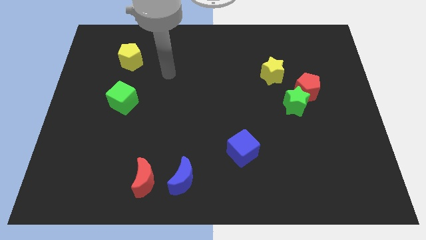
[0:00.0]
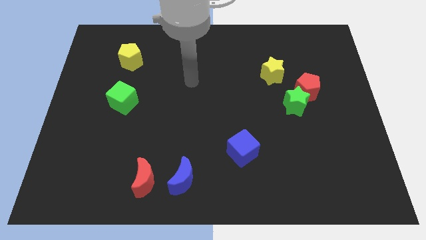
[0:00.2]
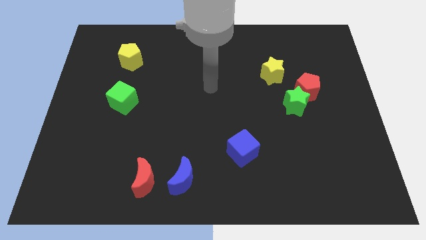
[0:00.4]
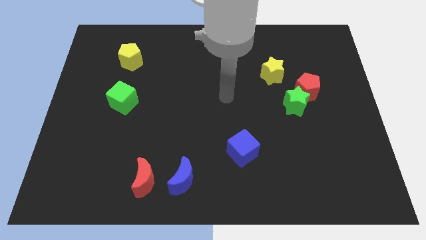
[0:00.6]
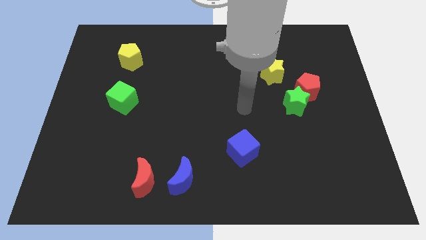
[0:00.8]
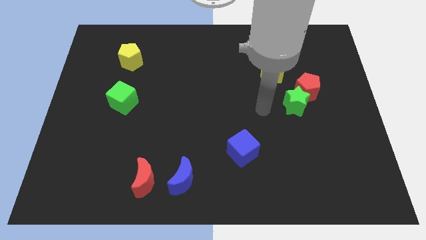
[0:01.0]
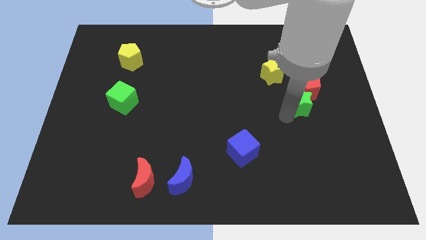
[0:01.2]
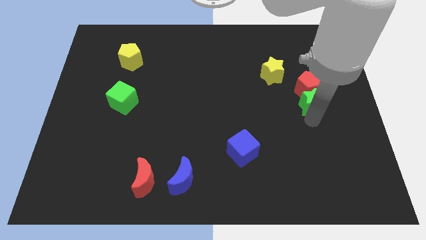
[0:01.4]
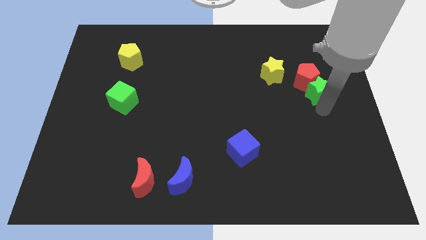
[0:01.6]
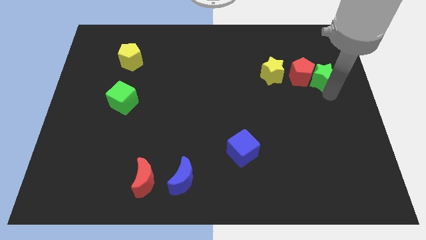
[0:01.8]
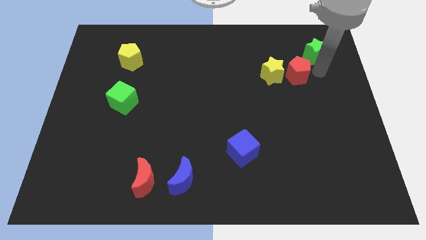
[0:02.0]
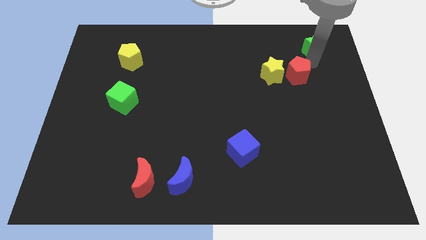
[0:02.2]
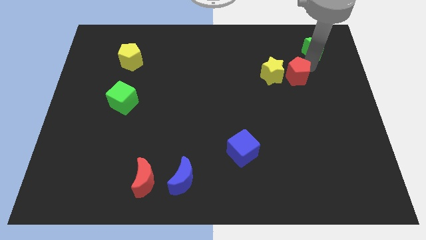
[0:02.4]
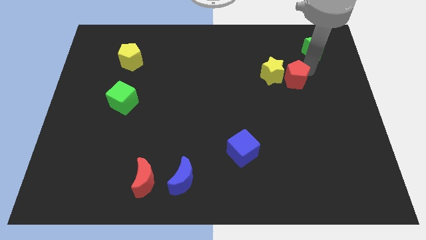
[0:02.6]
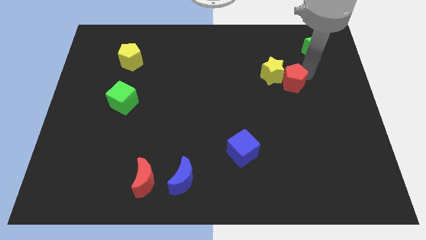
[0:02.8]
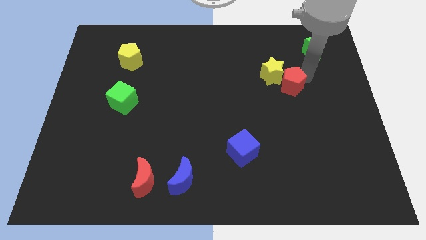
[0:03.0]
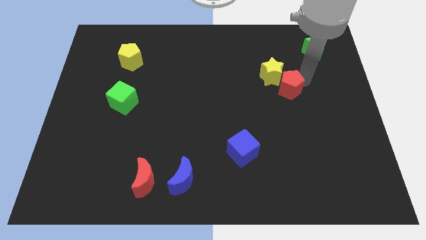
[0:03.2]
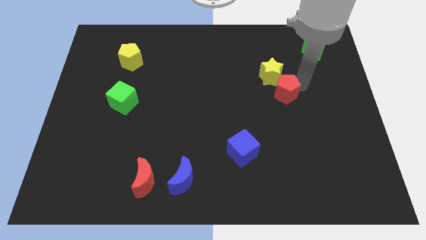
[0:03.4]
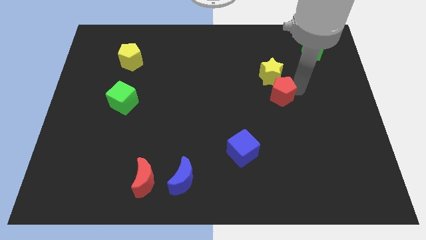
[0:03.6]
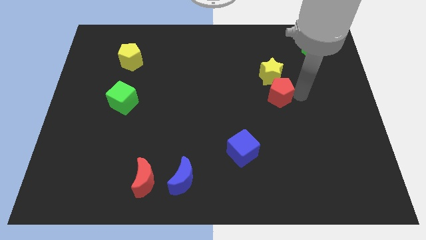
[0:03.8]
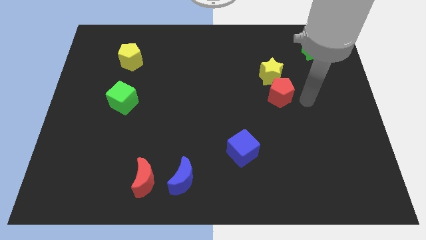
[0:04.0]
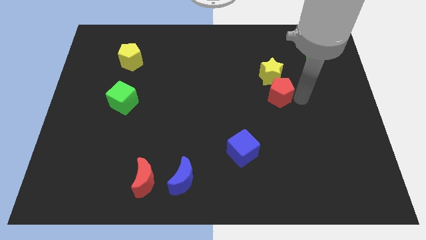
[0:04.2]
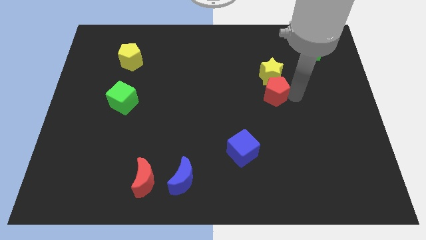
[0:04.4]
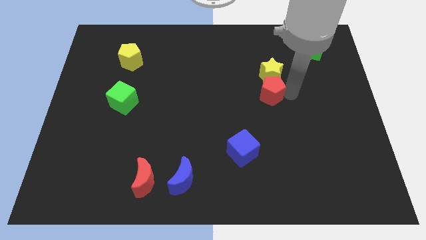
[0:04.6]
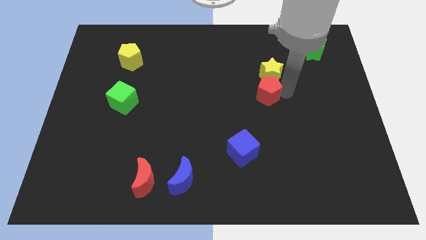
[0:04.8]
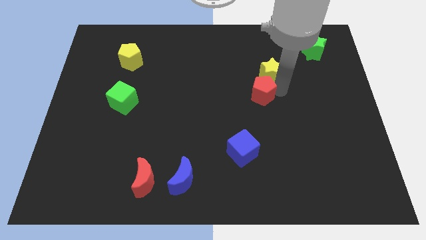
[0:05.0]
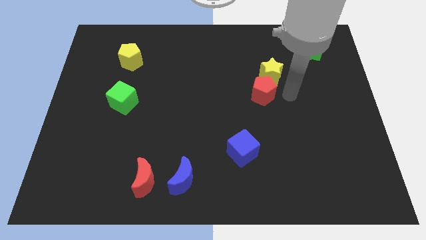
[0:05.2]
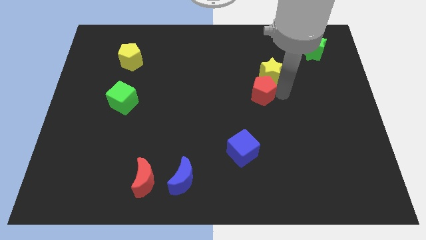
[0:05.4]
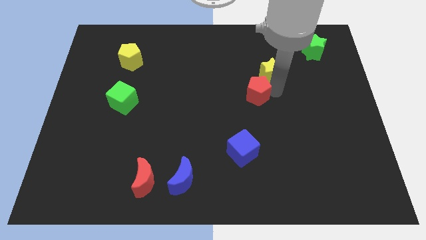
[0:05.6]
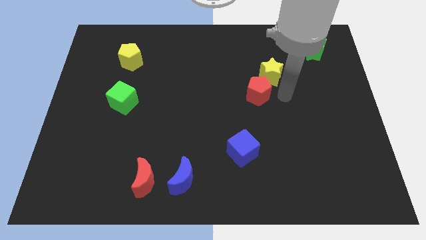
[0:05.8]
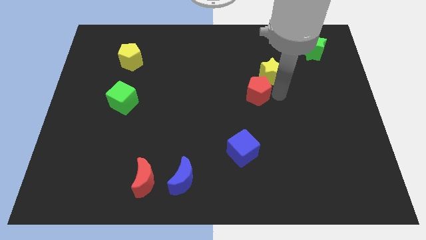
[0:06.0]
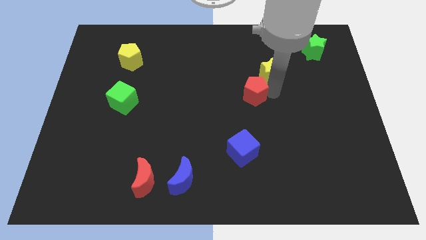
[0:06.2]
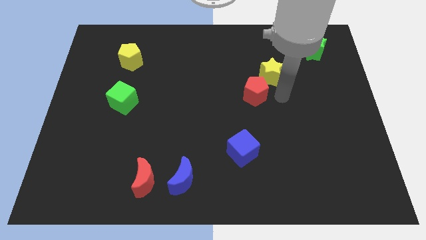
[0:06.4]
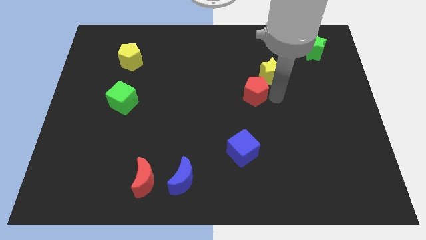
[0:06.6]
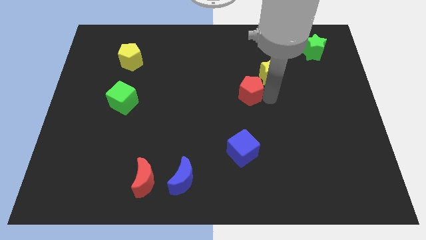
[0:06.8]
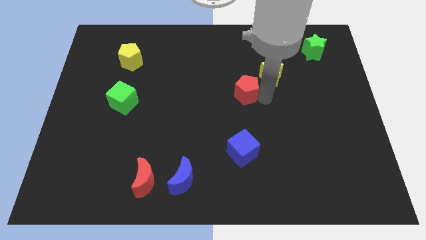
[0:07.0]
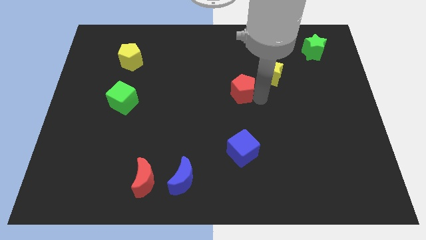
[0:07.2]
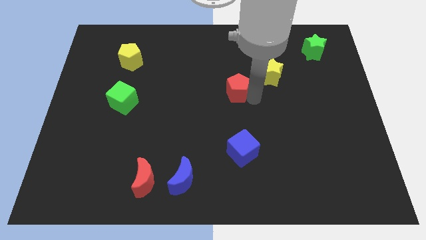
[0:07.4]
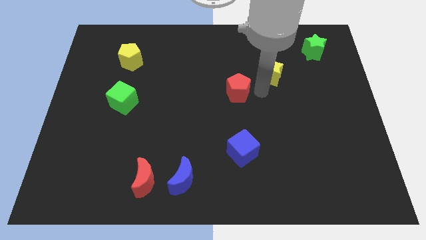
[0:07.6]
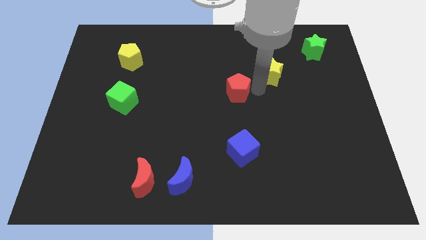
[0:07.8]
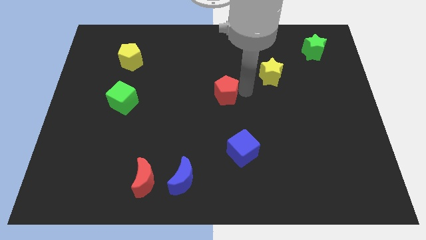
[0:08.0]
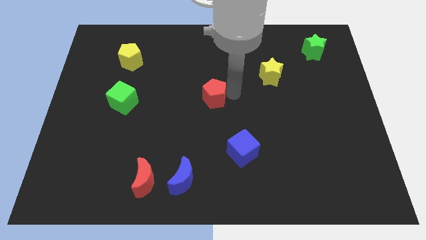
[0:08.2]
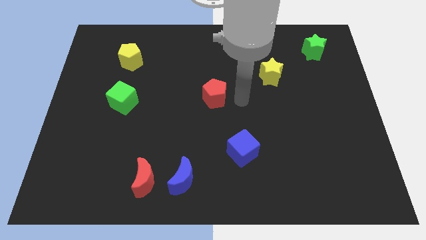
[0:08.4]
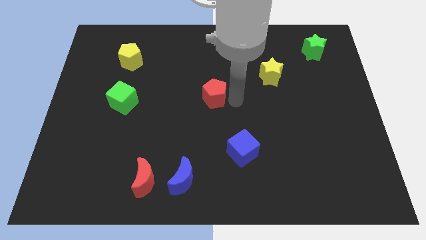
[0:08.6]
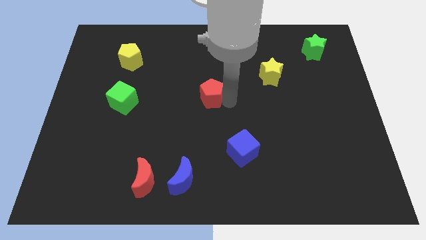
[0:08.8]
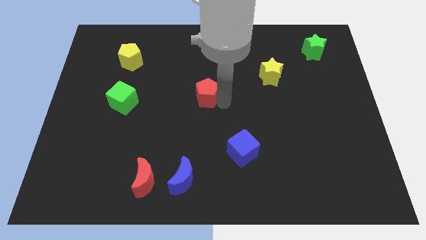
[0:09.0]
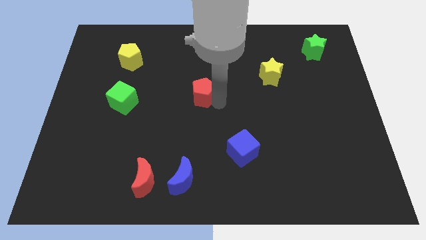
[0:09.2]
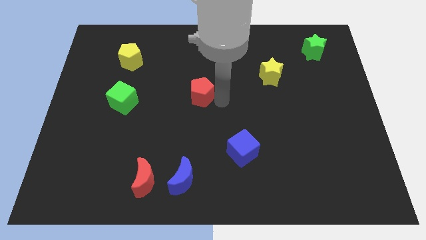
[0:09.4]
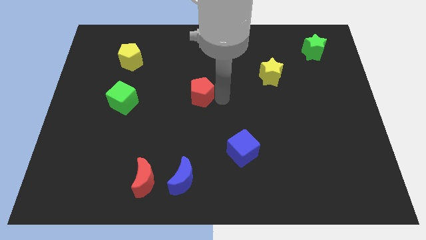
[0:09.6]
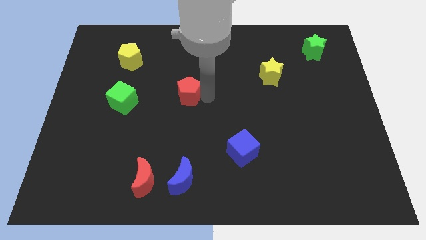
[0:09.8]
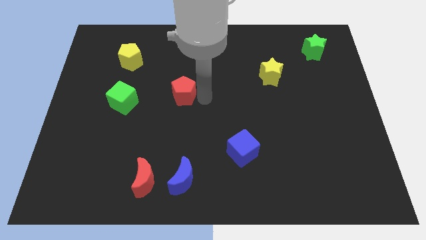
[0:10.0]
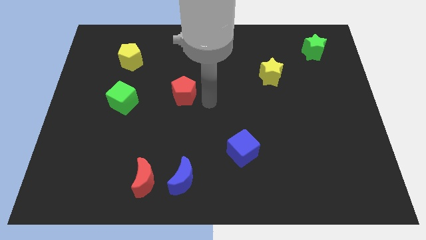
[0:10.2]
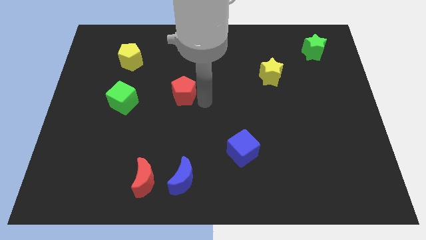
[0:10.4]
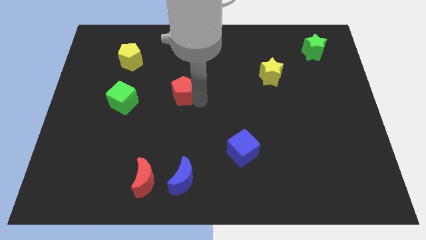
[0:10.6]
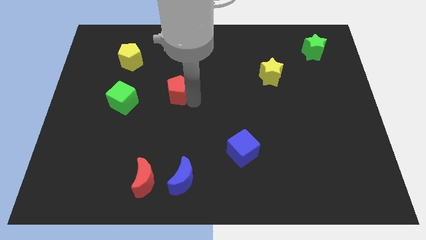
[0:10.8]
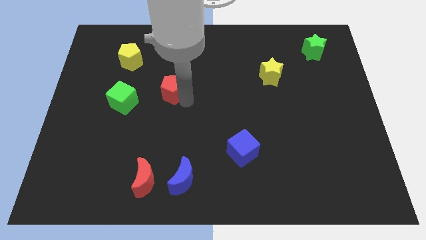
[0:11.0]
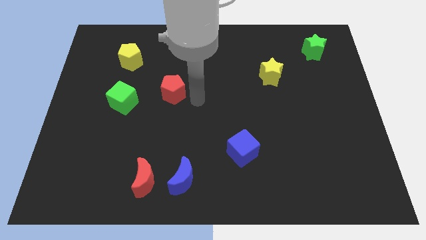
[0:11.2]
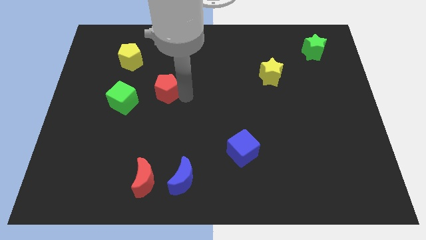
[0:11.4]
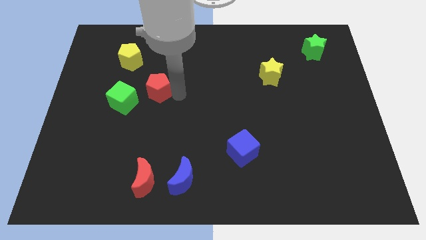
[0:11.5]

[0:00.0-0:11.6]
move the red pentagon to the top right side of the green cube

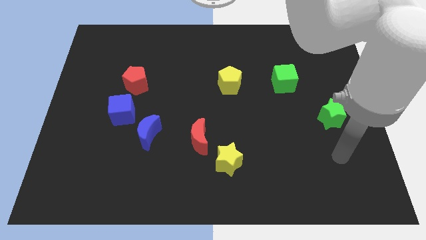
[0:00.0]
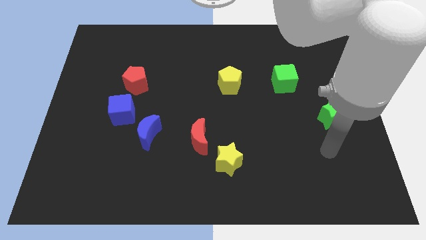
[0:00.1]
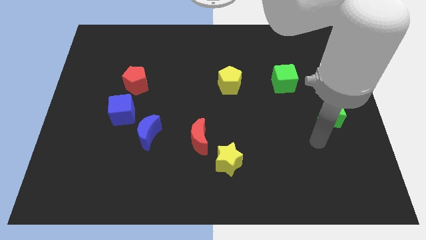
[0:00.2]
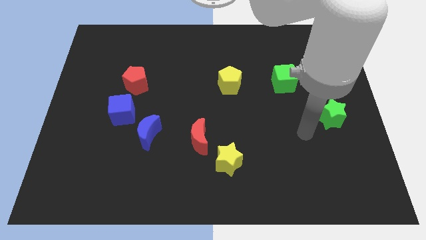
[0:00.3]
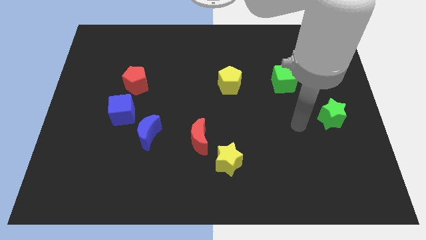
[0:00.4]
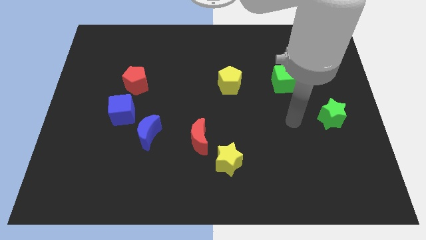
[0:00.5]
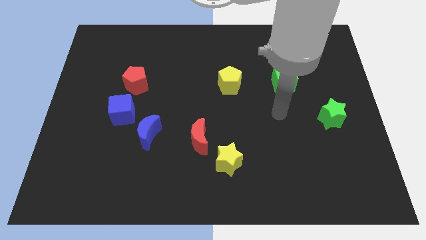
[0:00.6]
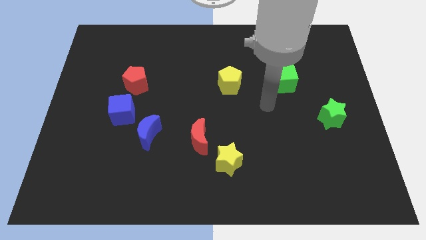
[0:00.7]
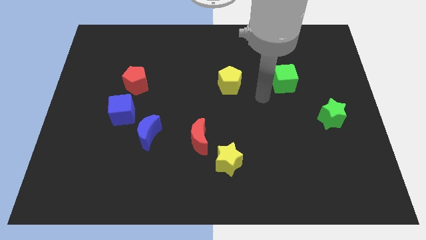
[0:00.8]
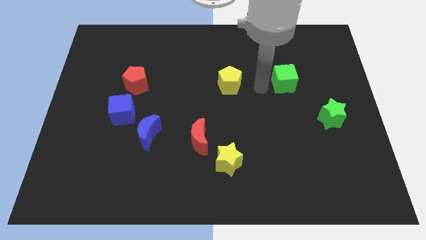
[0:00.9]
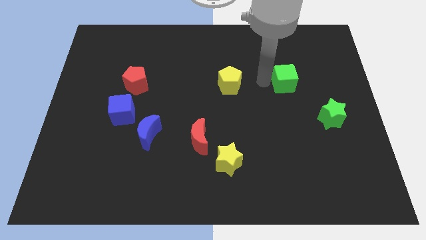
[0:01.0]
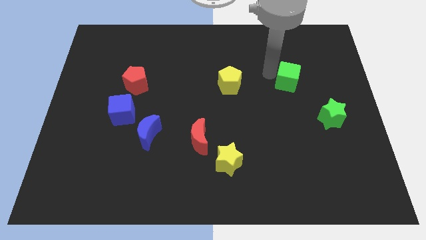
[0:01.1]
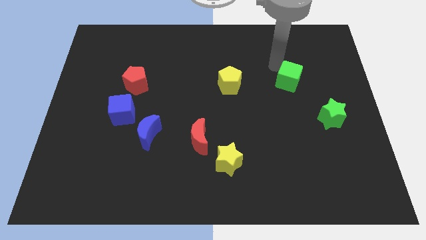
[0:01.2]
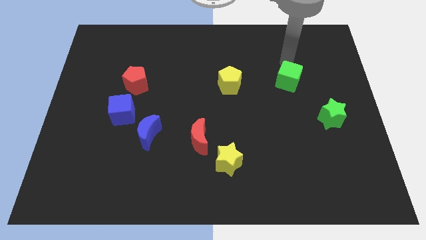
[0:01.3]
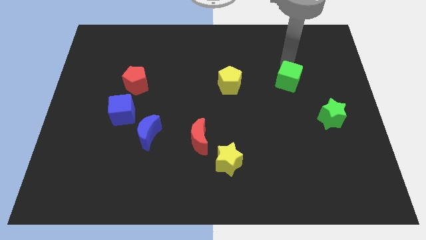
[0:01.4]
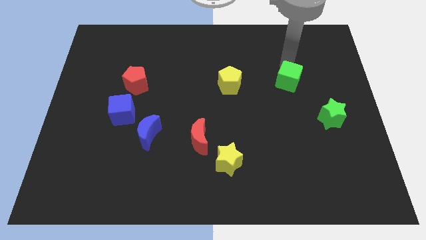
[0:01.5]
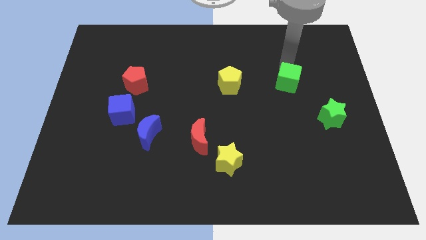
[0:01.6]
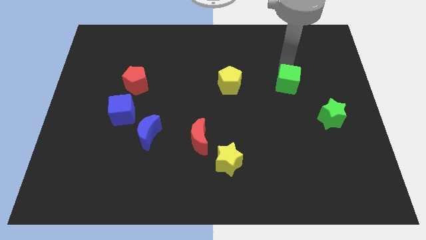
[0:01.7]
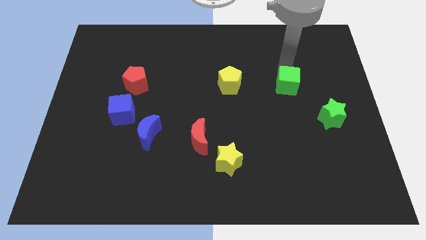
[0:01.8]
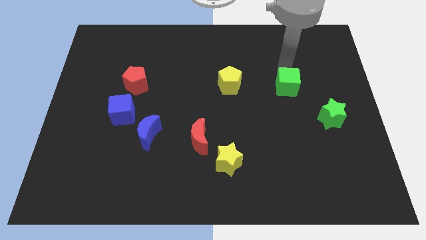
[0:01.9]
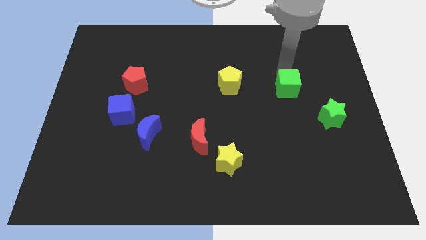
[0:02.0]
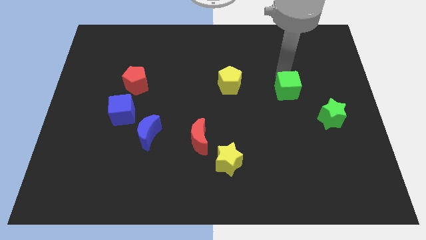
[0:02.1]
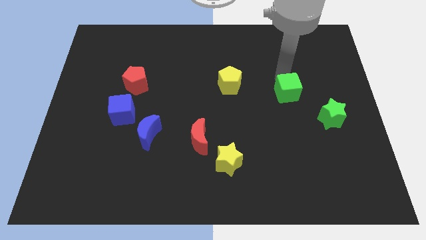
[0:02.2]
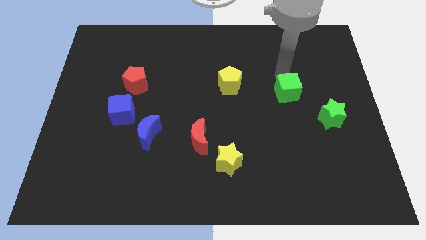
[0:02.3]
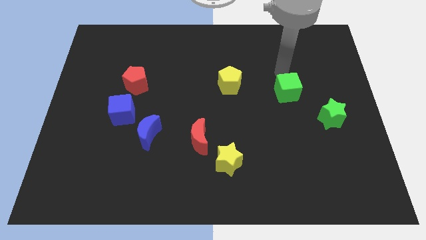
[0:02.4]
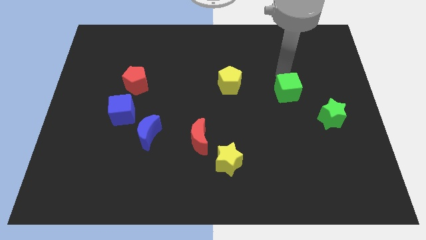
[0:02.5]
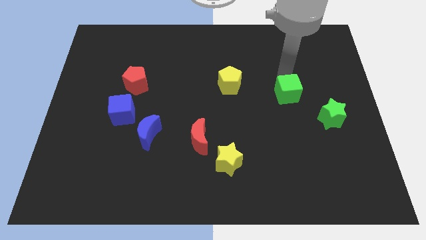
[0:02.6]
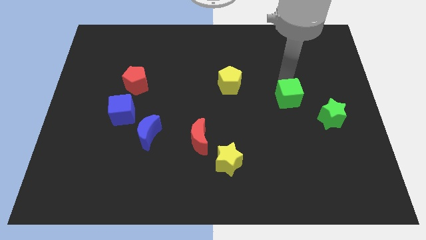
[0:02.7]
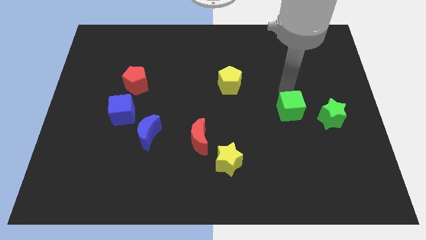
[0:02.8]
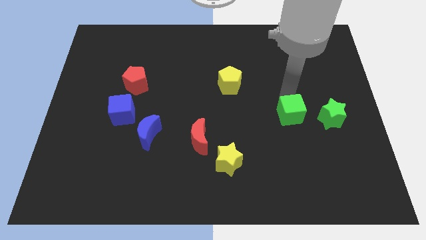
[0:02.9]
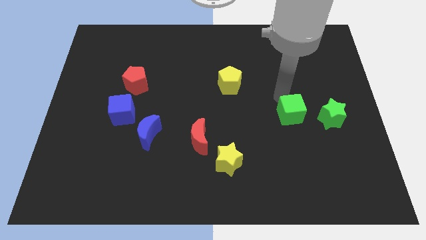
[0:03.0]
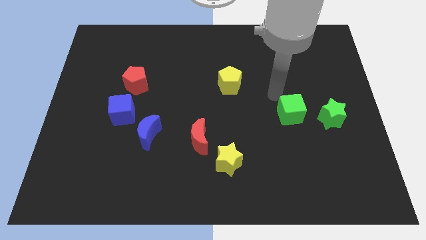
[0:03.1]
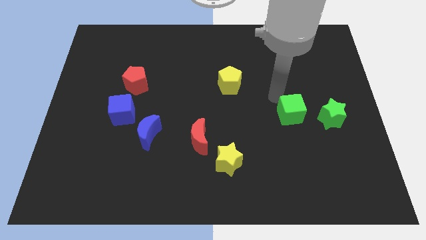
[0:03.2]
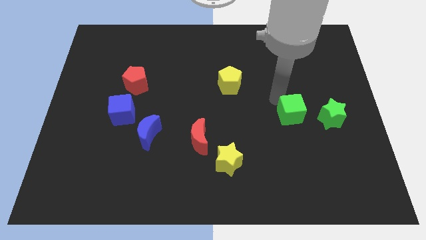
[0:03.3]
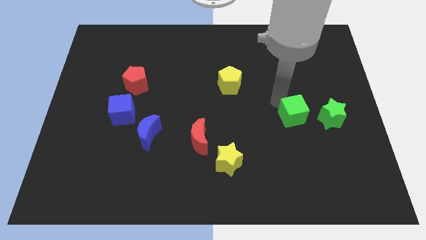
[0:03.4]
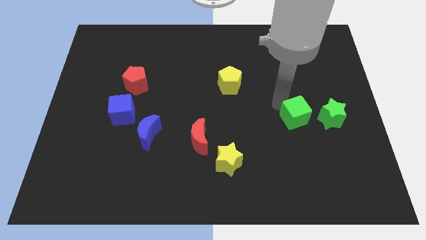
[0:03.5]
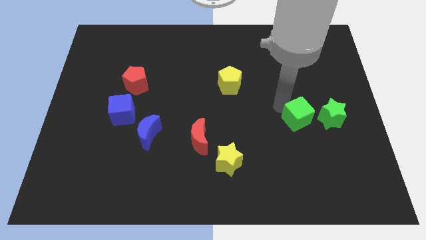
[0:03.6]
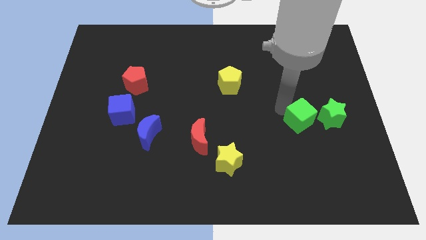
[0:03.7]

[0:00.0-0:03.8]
move the green cube to the bottom left side of the green star
